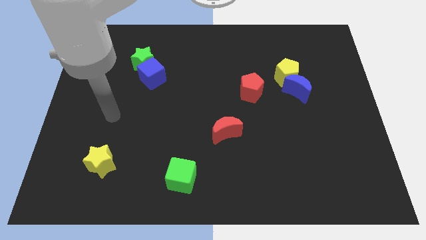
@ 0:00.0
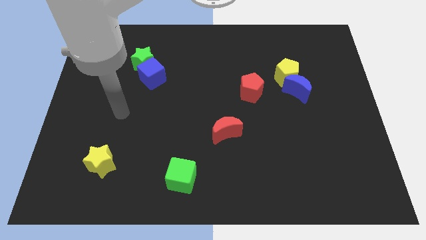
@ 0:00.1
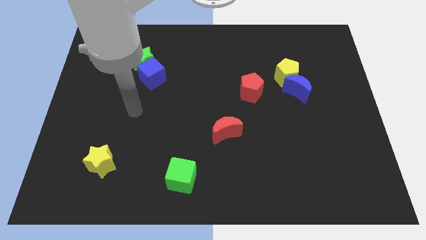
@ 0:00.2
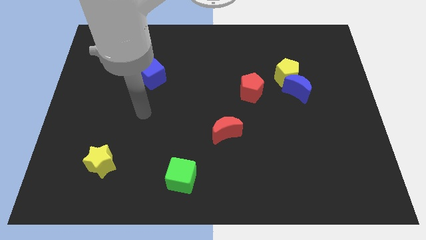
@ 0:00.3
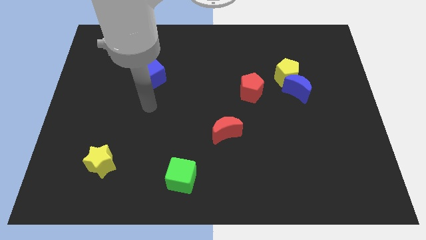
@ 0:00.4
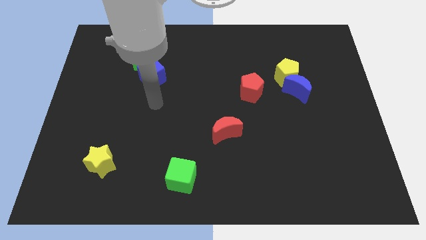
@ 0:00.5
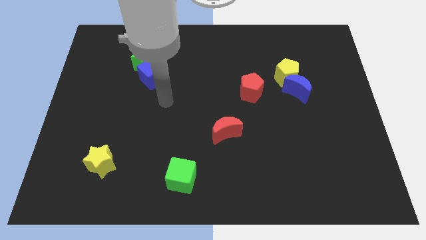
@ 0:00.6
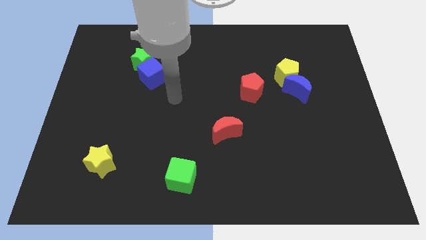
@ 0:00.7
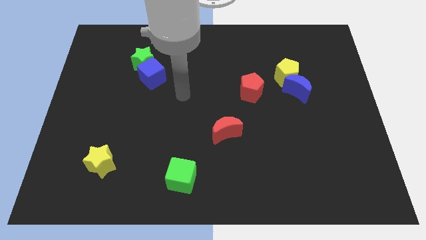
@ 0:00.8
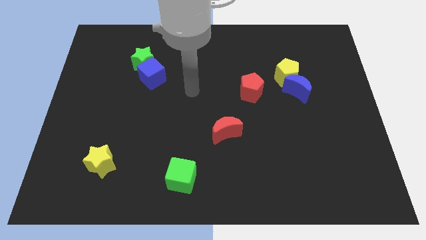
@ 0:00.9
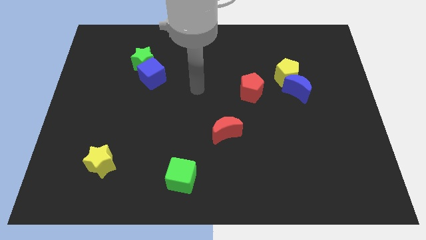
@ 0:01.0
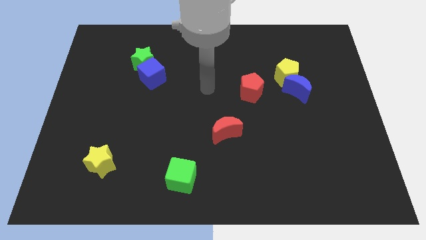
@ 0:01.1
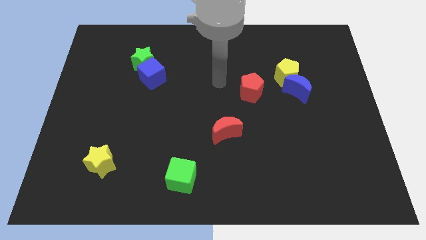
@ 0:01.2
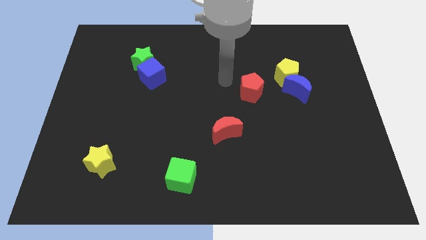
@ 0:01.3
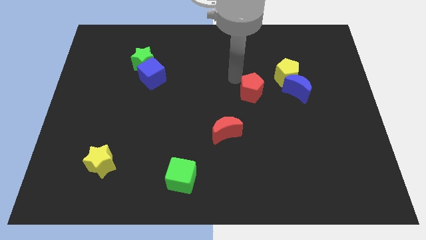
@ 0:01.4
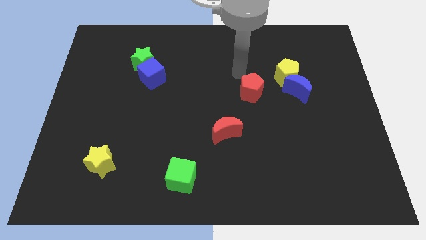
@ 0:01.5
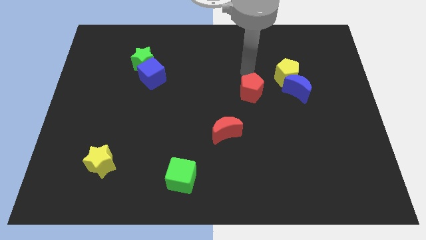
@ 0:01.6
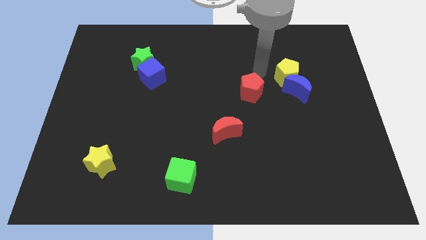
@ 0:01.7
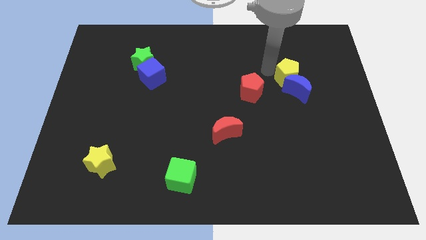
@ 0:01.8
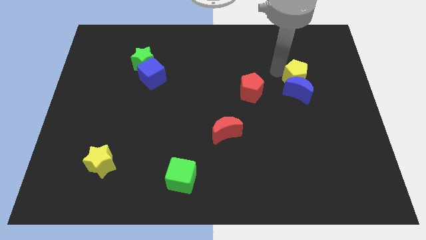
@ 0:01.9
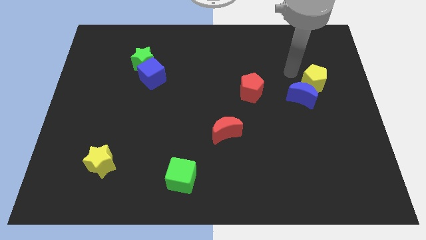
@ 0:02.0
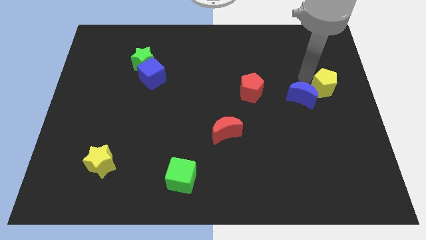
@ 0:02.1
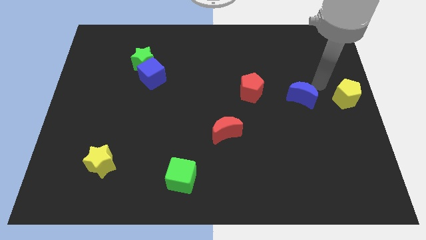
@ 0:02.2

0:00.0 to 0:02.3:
separate the blue moon from the yellow pentagon

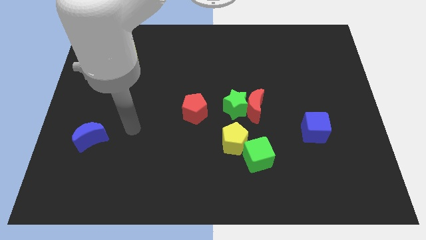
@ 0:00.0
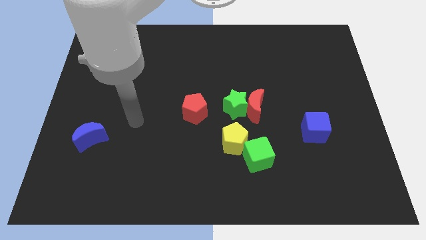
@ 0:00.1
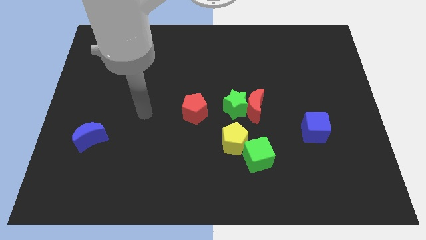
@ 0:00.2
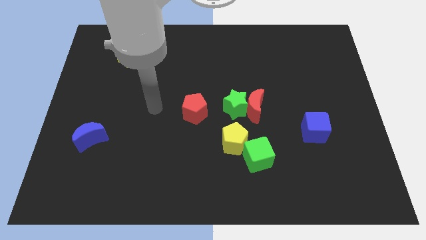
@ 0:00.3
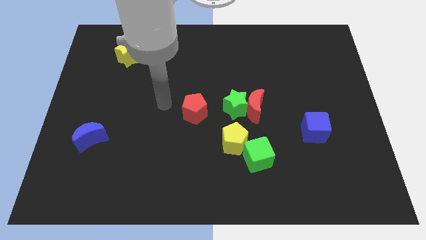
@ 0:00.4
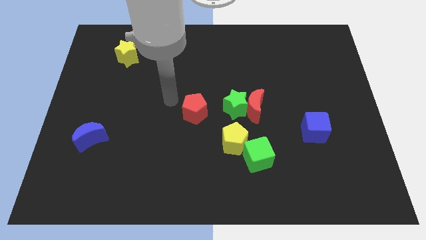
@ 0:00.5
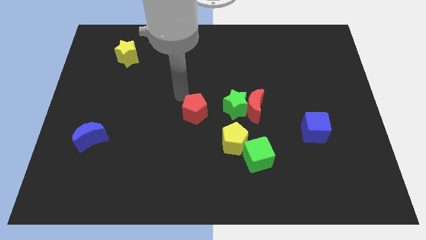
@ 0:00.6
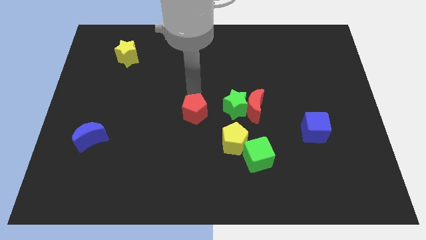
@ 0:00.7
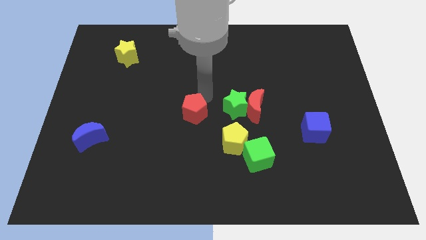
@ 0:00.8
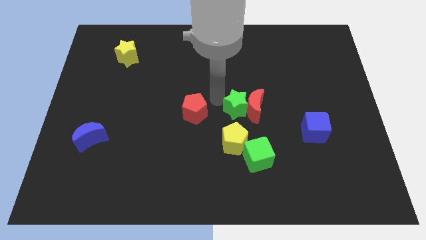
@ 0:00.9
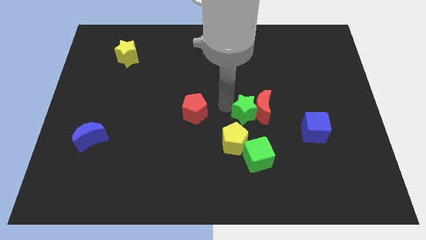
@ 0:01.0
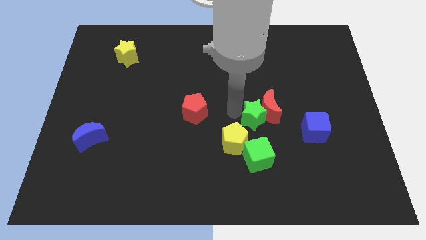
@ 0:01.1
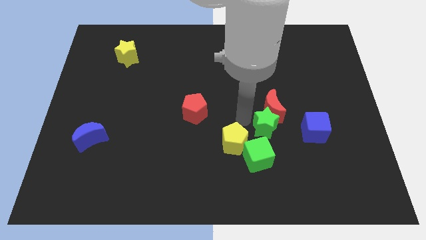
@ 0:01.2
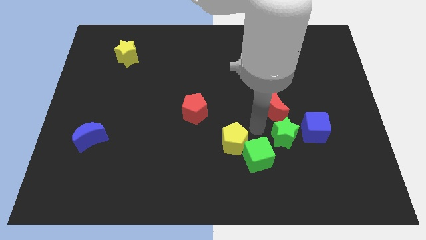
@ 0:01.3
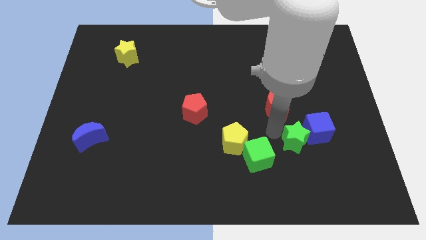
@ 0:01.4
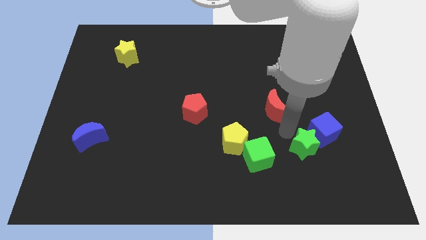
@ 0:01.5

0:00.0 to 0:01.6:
move the red moon away from the green star

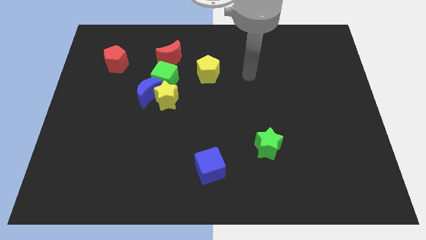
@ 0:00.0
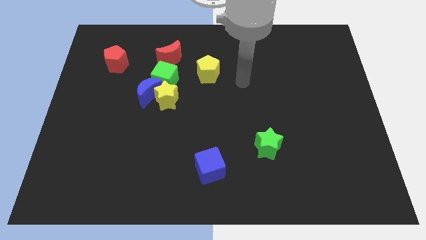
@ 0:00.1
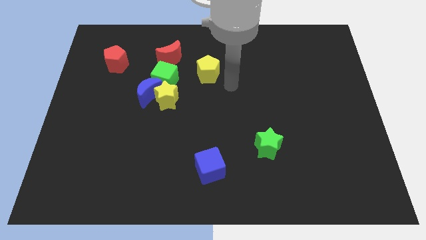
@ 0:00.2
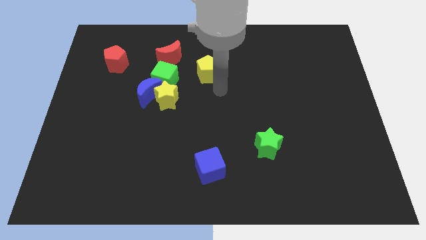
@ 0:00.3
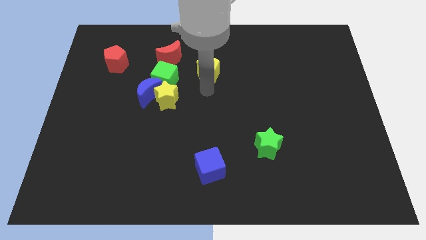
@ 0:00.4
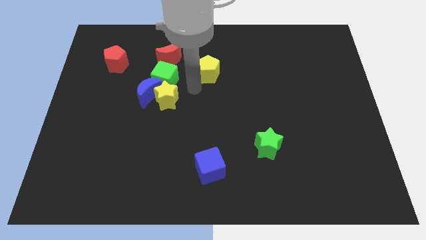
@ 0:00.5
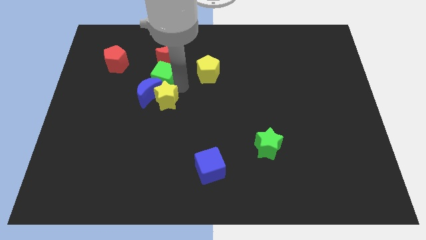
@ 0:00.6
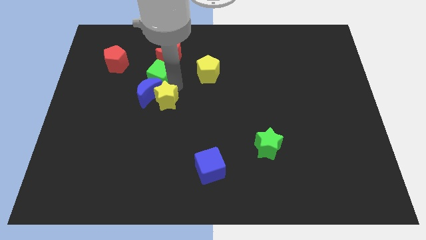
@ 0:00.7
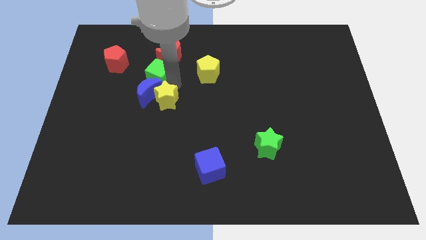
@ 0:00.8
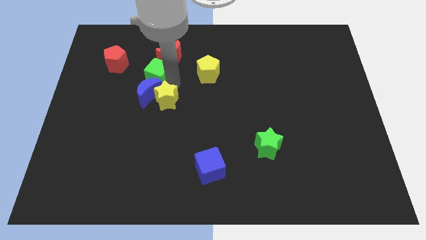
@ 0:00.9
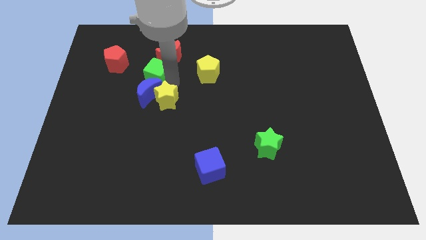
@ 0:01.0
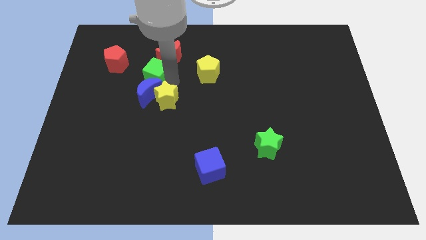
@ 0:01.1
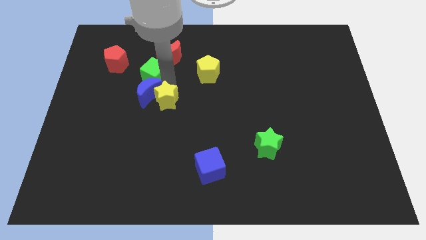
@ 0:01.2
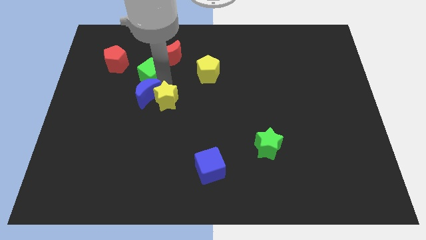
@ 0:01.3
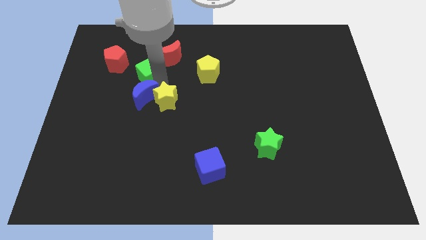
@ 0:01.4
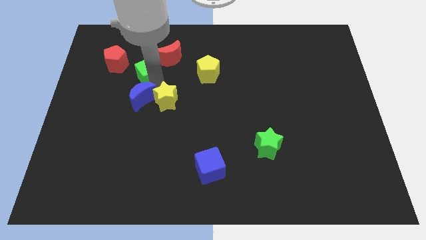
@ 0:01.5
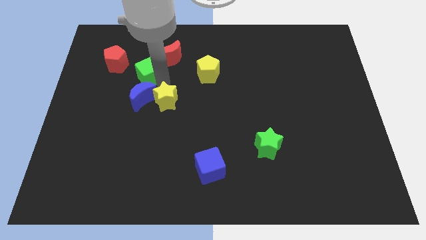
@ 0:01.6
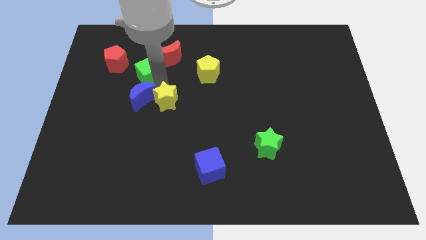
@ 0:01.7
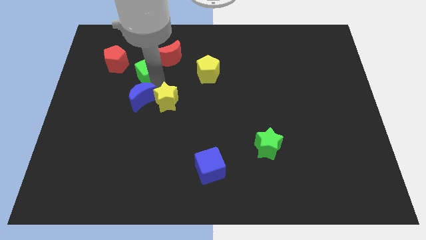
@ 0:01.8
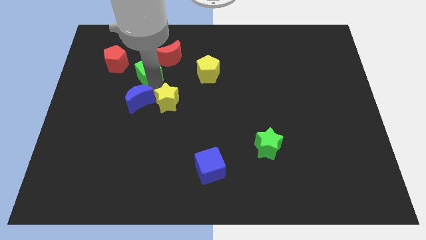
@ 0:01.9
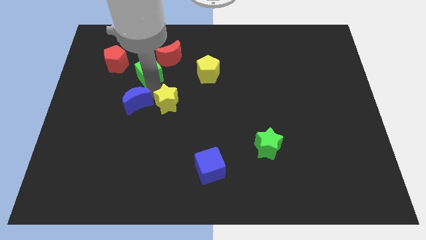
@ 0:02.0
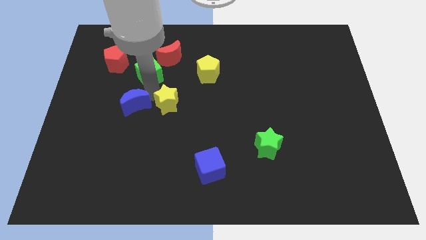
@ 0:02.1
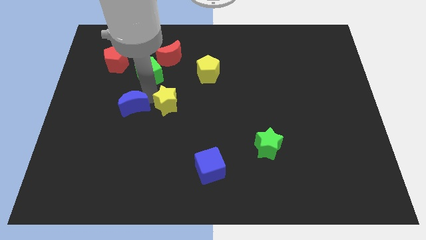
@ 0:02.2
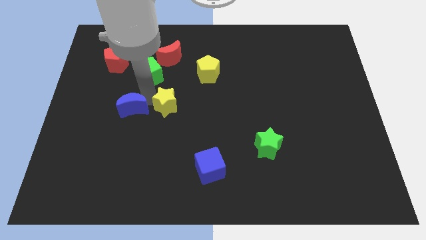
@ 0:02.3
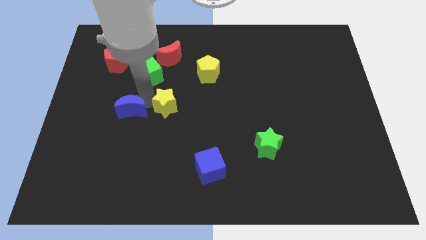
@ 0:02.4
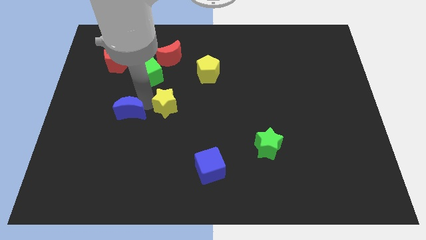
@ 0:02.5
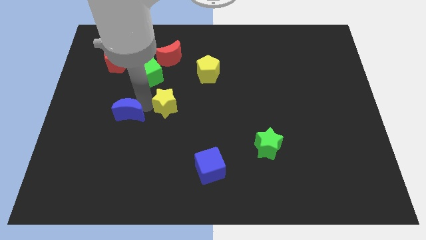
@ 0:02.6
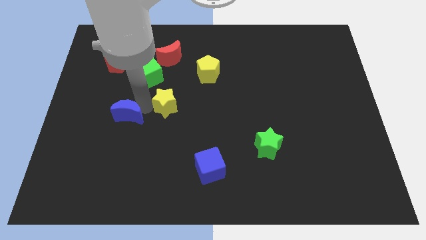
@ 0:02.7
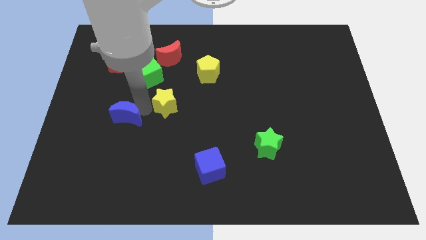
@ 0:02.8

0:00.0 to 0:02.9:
pull the blue moon apart from the yellow star and green cube

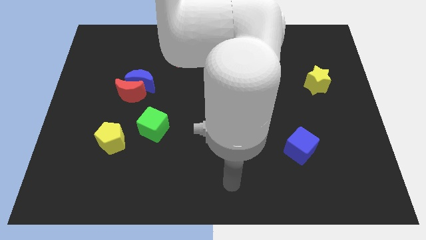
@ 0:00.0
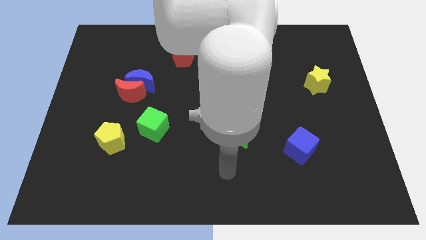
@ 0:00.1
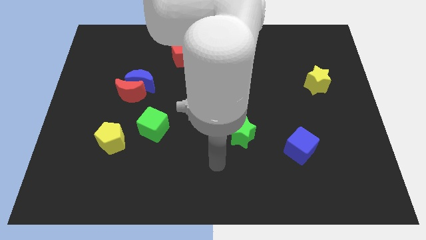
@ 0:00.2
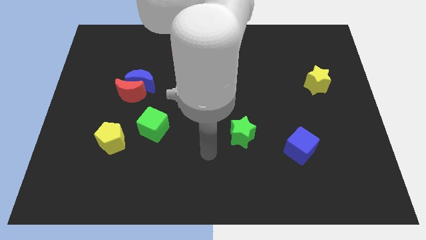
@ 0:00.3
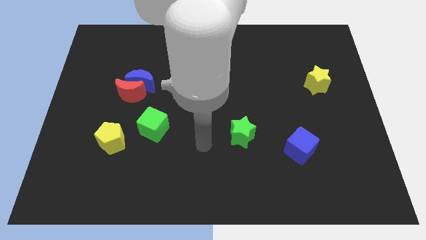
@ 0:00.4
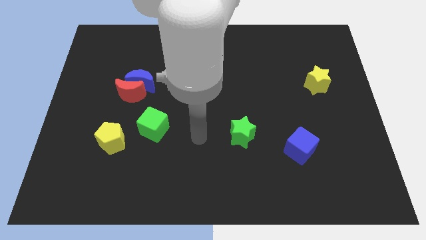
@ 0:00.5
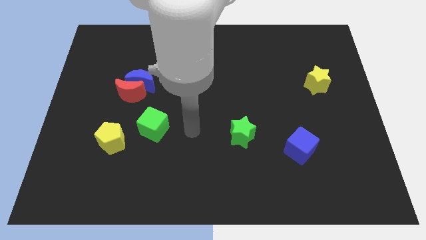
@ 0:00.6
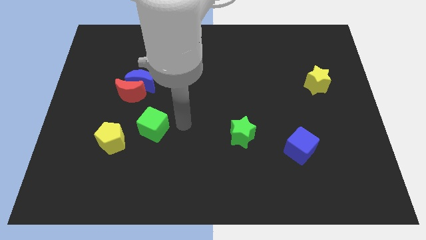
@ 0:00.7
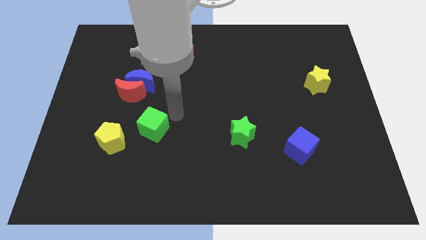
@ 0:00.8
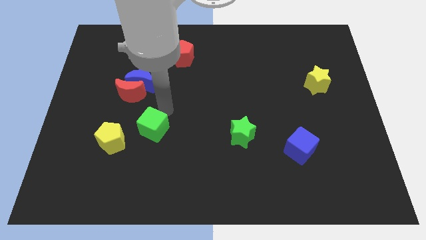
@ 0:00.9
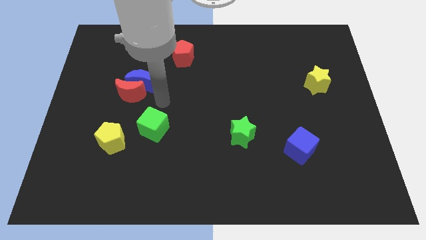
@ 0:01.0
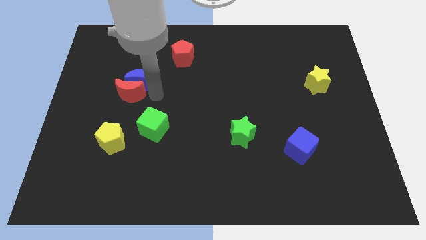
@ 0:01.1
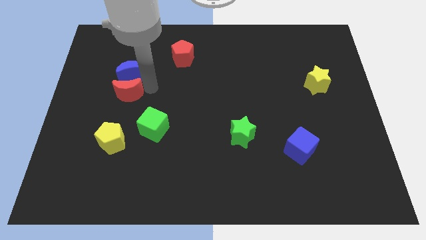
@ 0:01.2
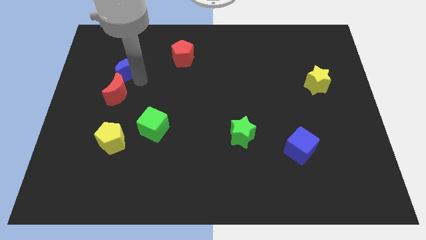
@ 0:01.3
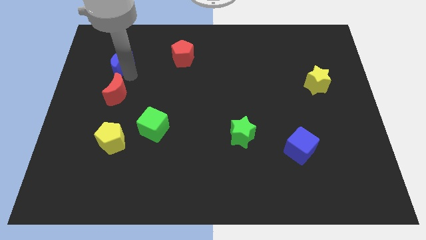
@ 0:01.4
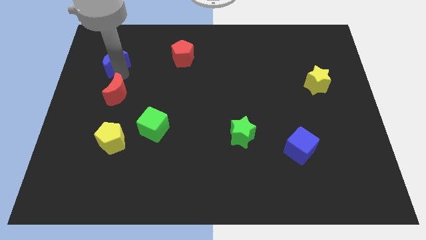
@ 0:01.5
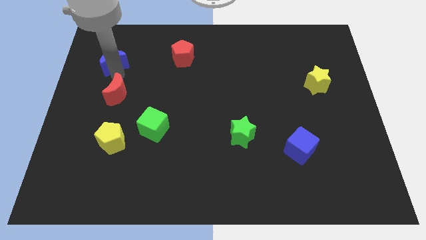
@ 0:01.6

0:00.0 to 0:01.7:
move the red moon away from the blue moon

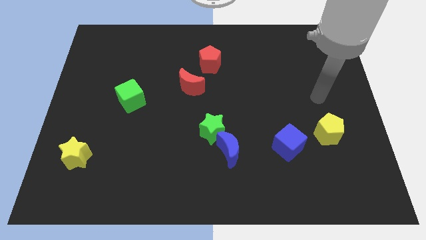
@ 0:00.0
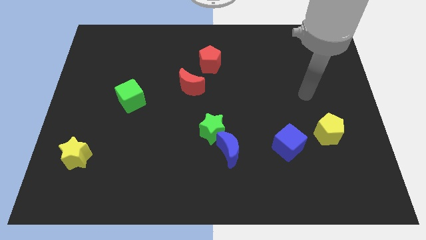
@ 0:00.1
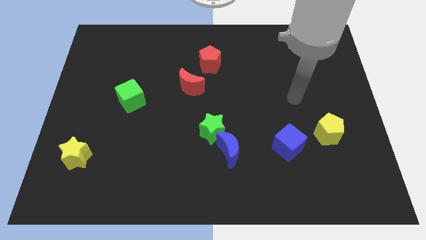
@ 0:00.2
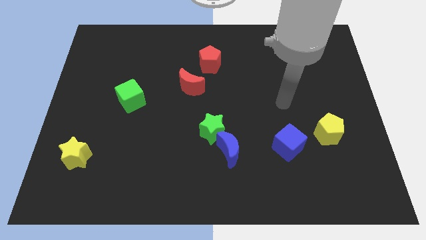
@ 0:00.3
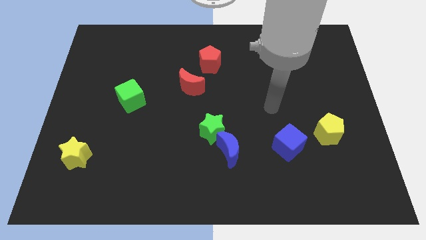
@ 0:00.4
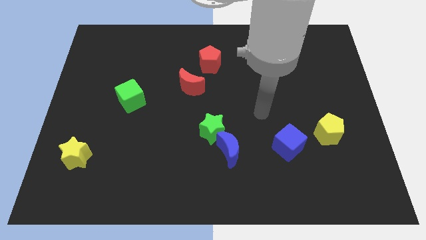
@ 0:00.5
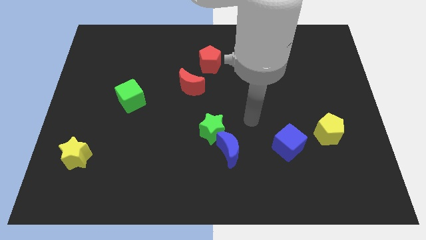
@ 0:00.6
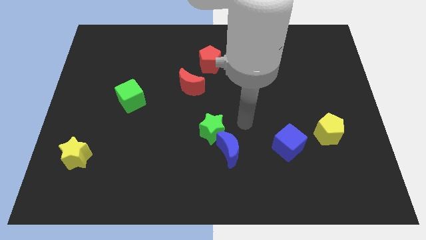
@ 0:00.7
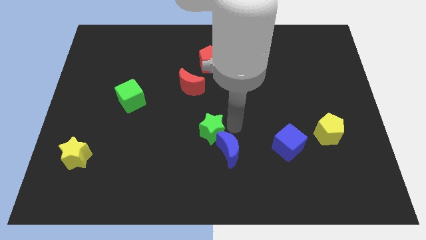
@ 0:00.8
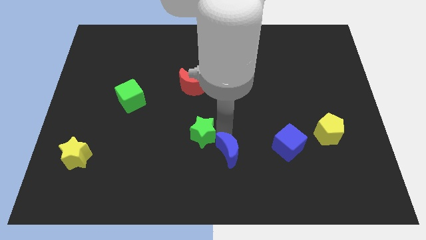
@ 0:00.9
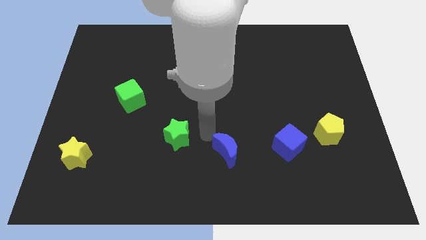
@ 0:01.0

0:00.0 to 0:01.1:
pull the blue moon apart from the green star
